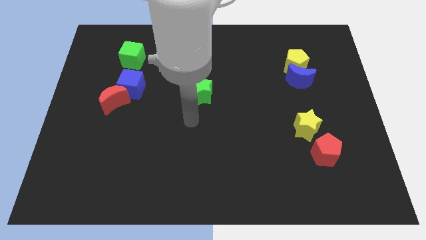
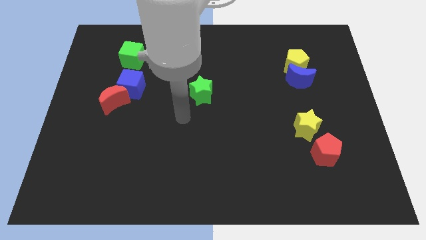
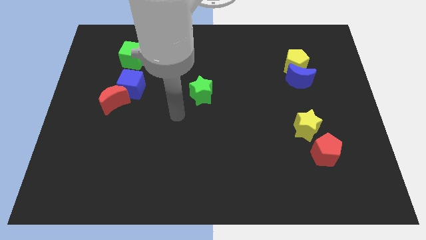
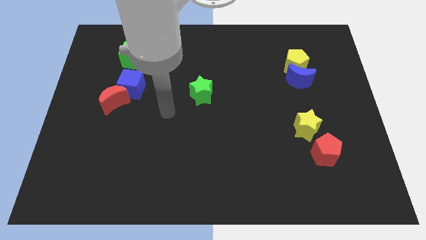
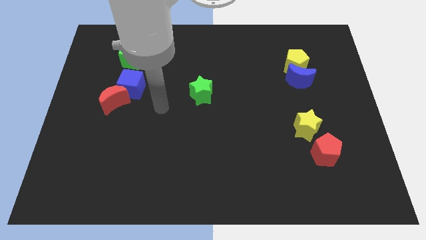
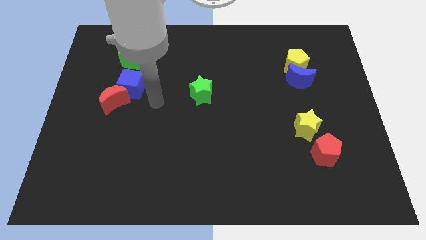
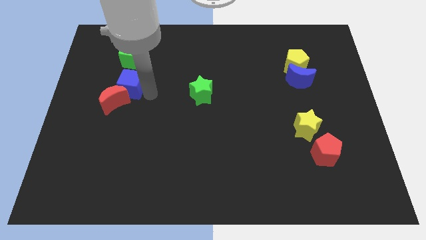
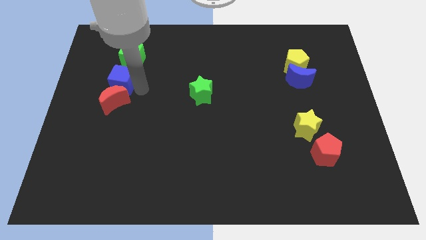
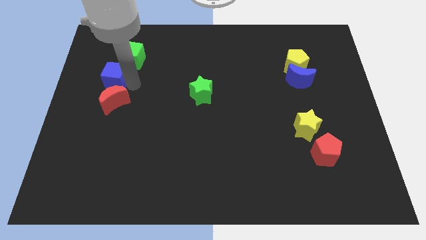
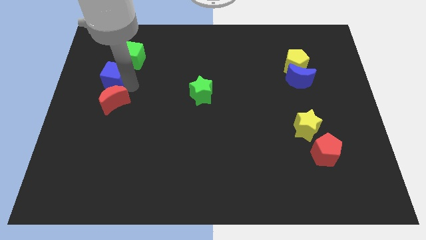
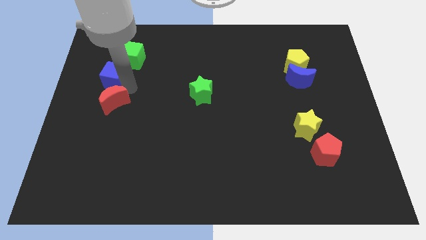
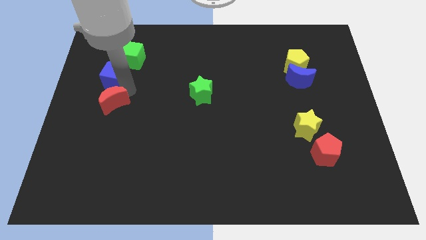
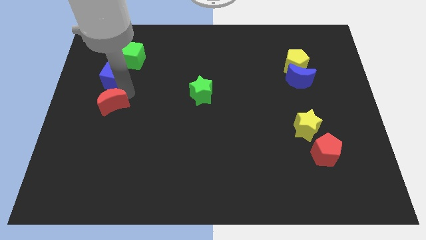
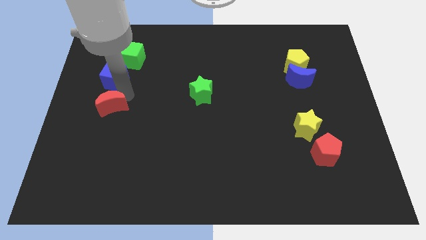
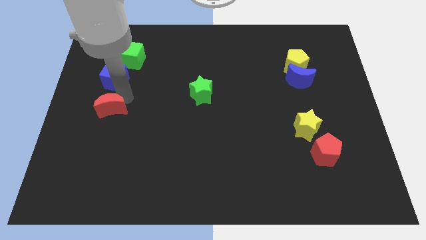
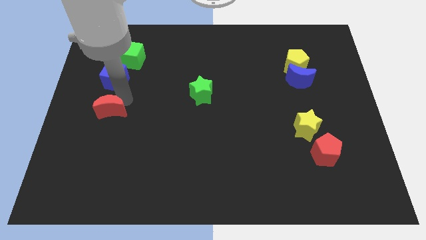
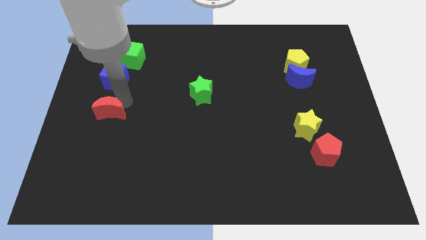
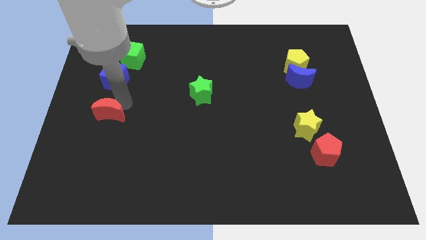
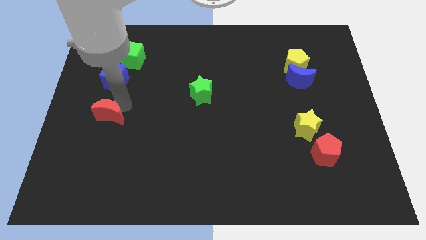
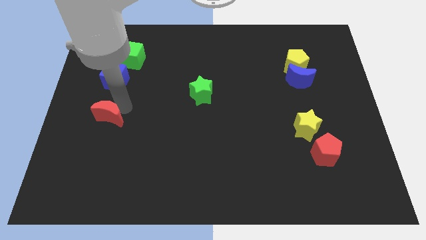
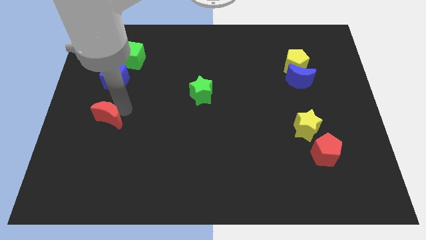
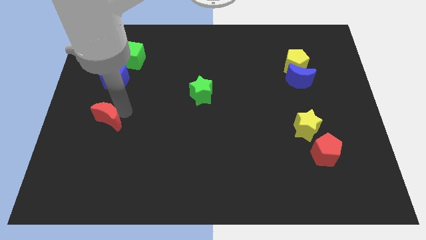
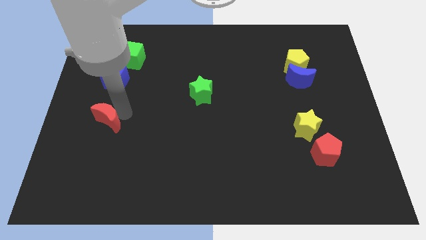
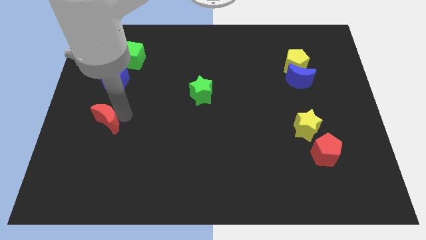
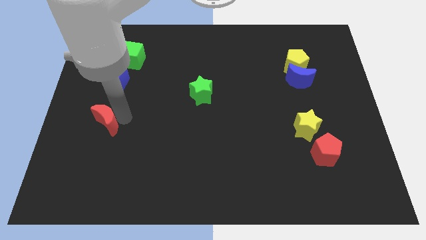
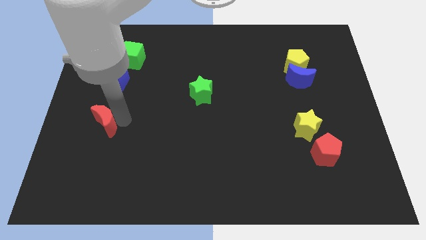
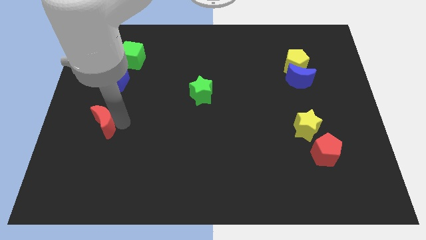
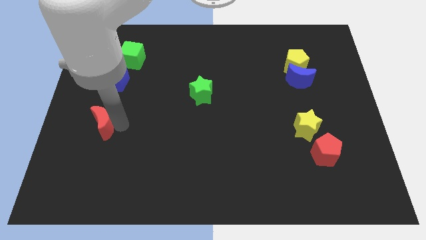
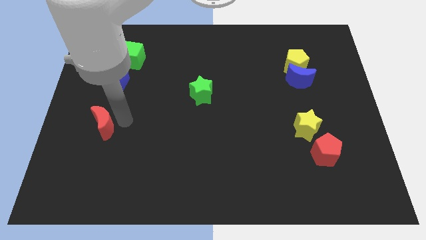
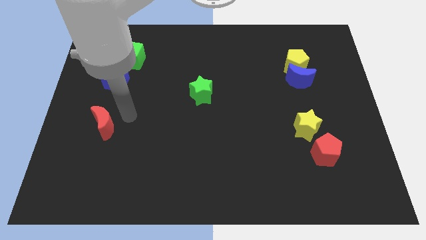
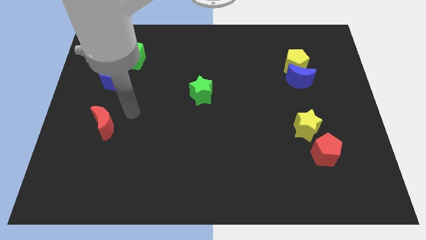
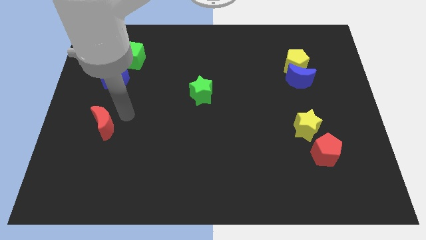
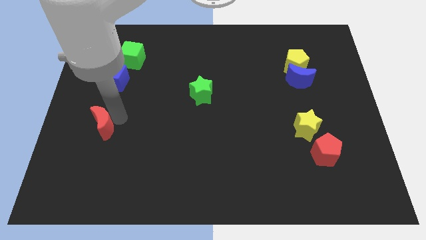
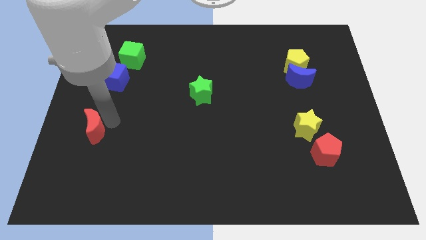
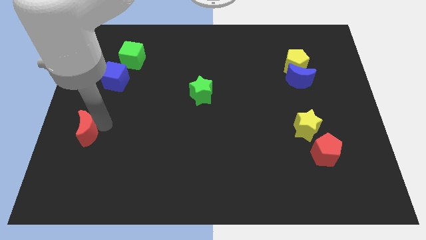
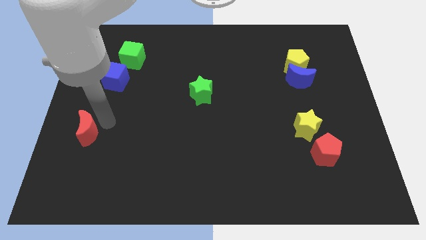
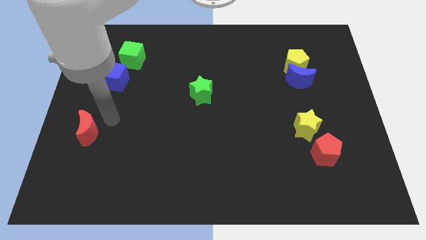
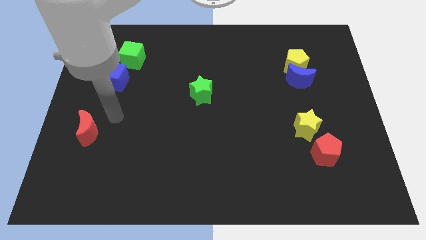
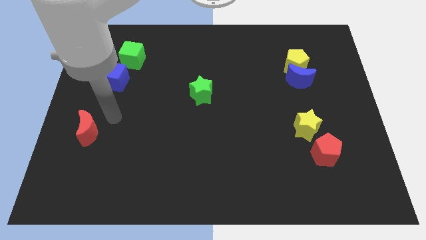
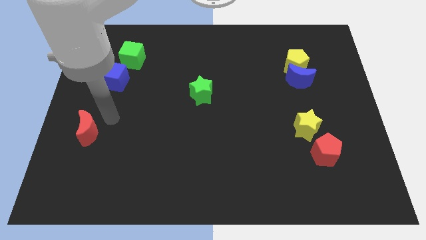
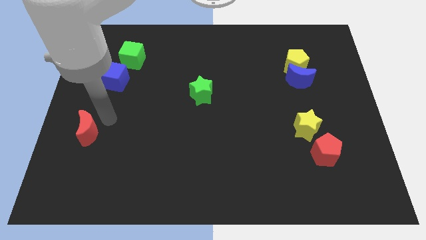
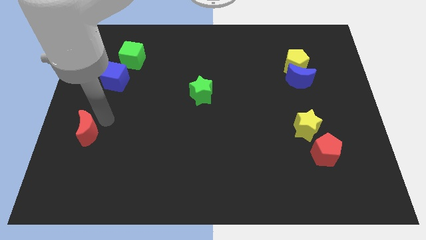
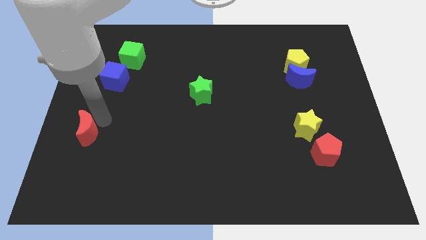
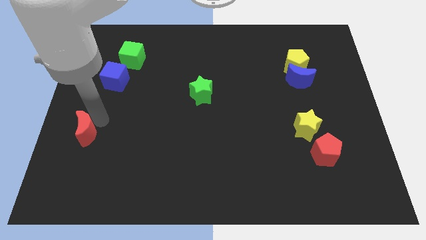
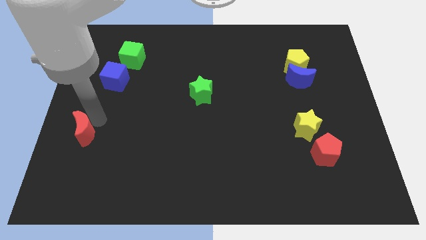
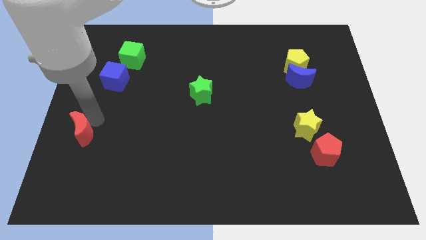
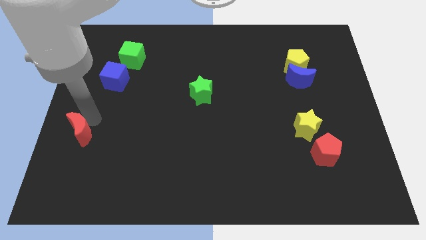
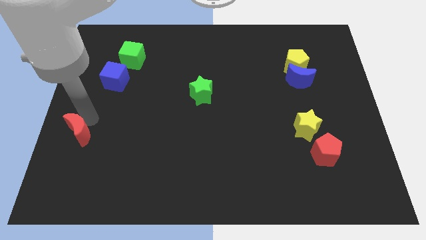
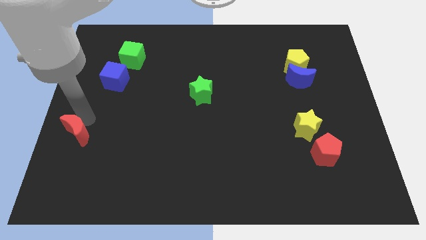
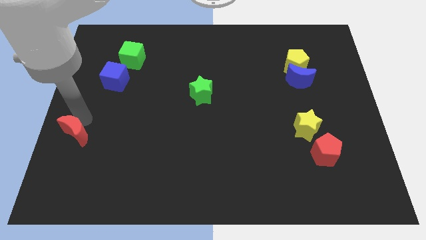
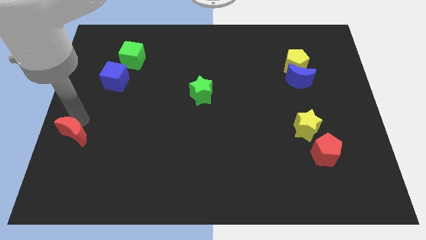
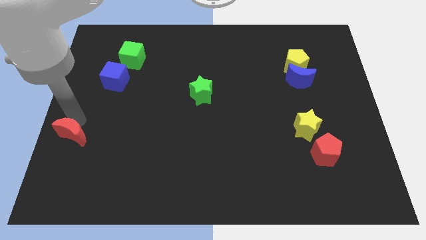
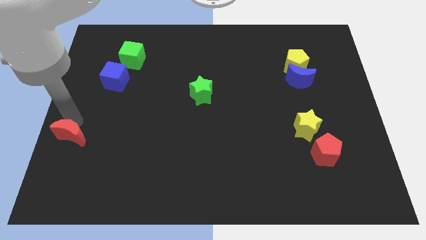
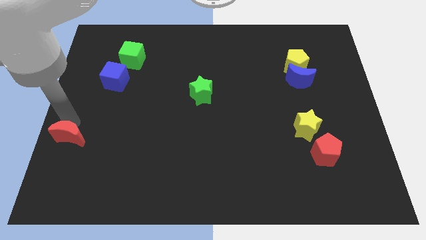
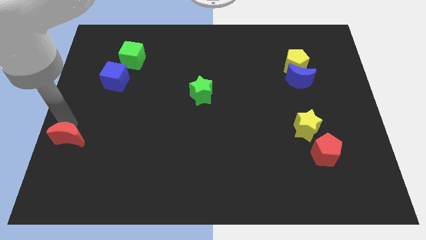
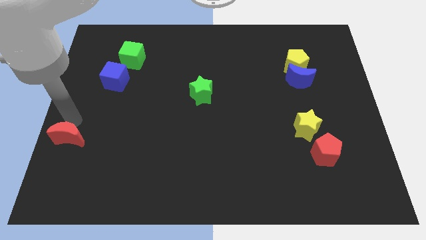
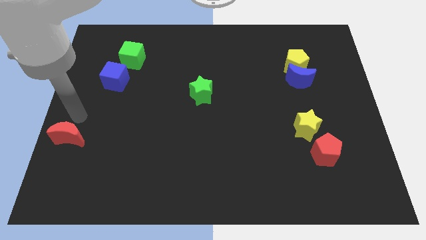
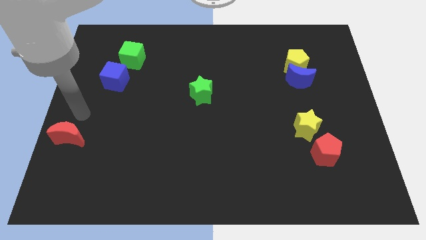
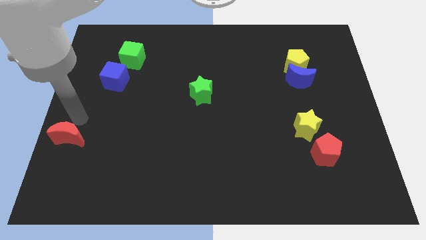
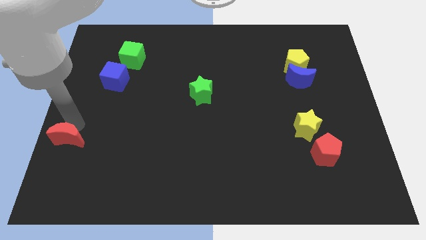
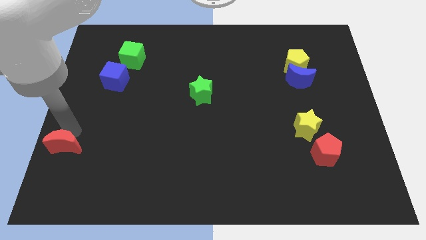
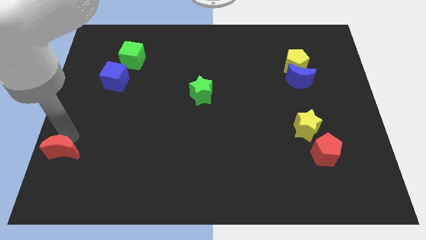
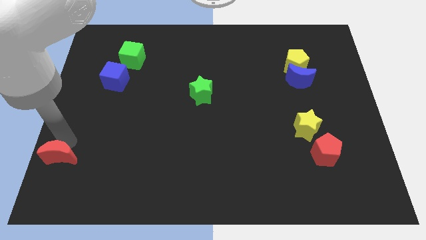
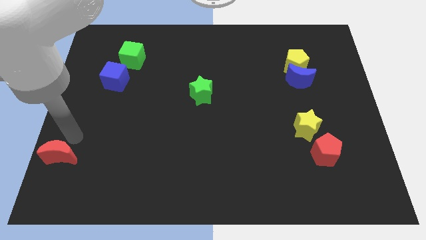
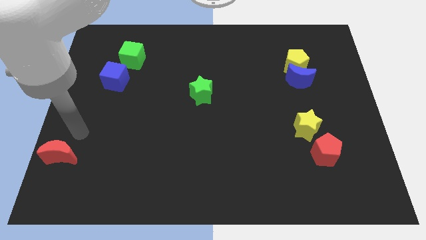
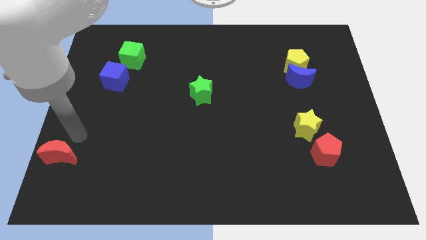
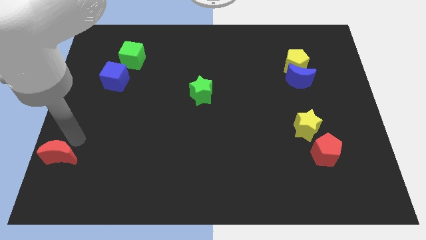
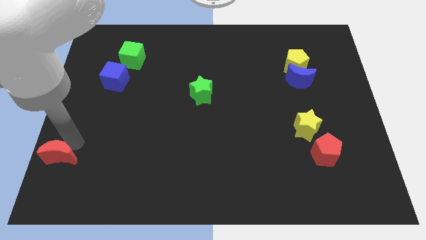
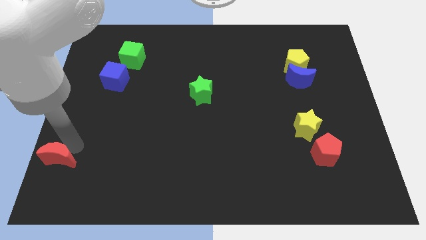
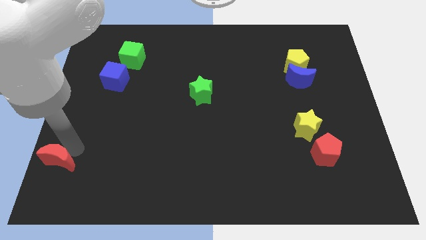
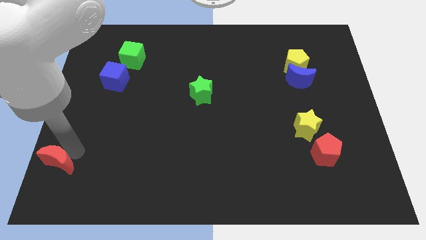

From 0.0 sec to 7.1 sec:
slide the red moon to the lower left corner

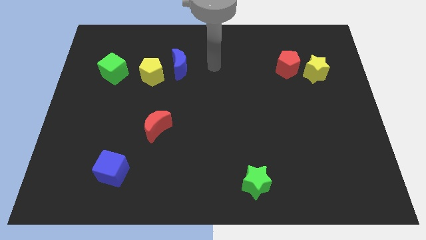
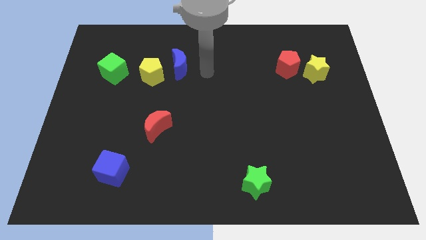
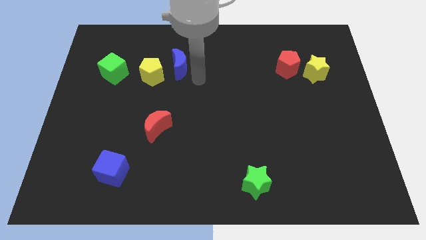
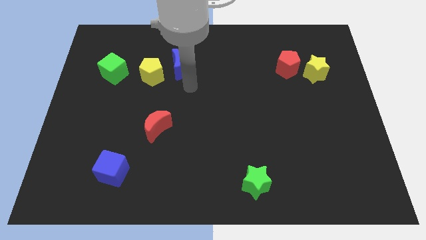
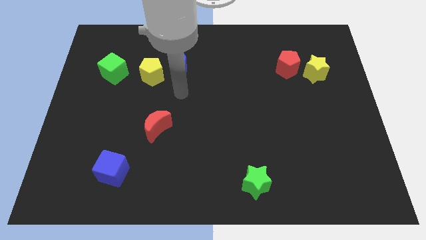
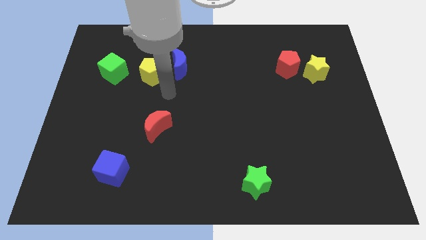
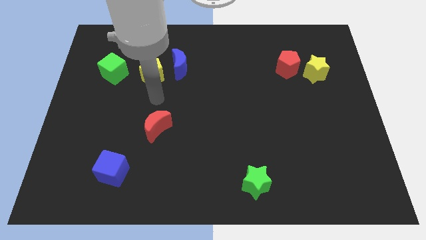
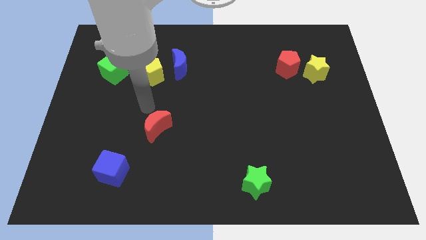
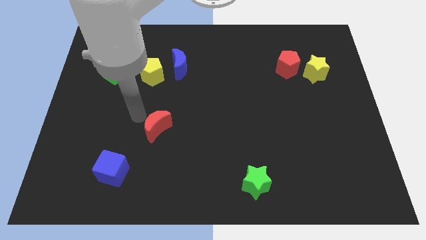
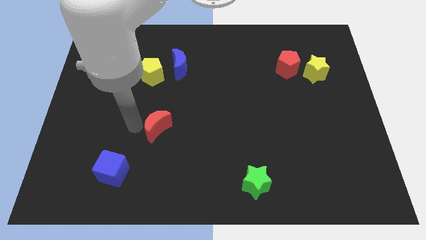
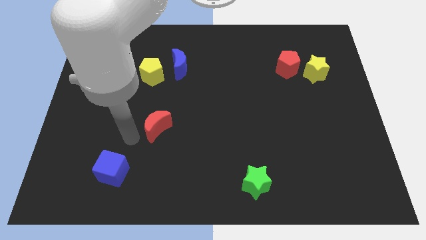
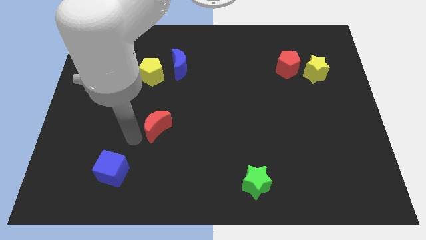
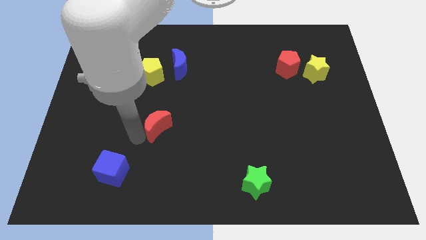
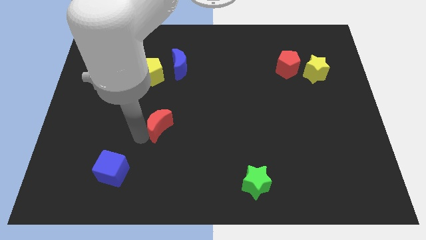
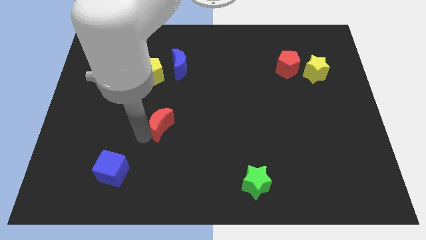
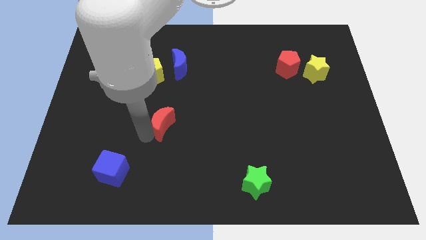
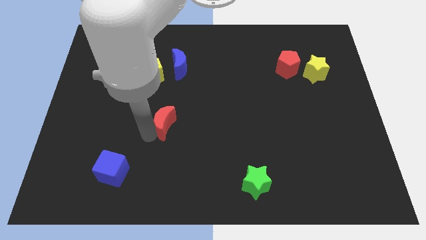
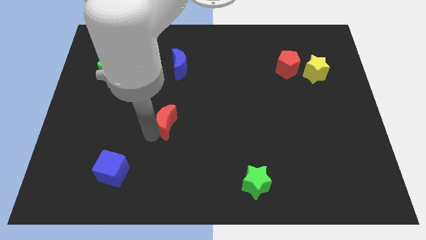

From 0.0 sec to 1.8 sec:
slide the red moon to the middle of the board
